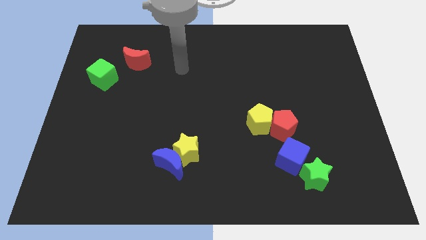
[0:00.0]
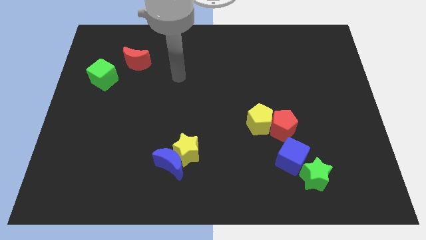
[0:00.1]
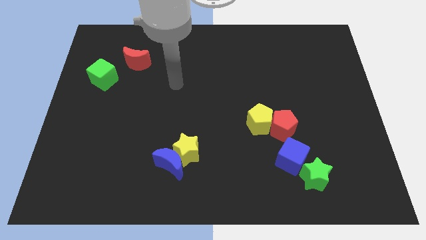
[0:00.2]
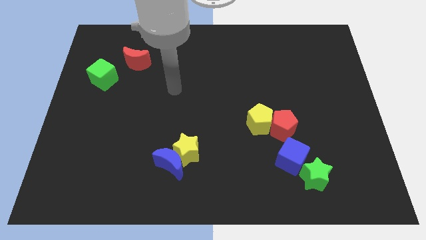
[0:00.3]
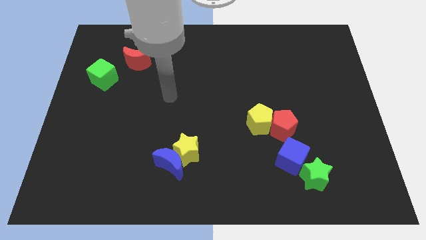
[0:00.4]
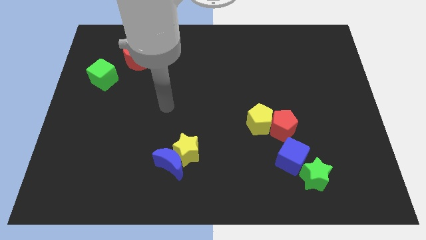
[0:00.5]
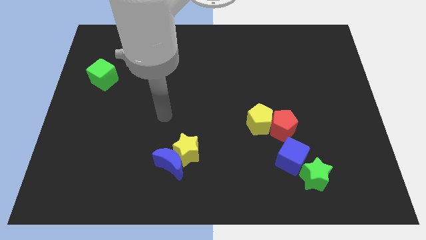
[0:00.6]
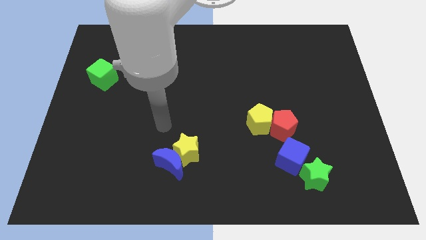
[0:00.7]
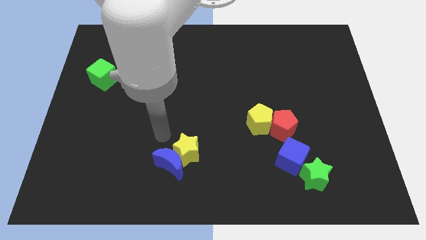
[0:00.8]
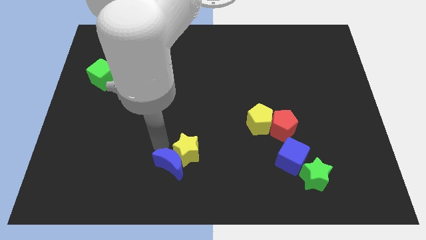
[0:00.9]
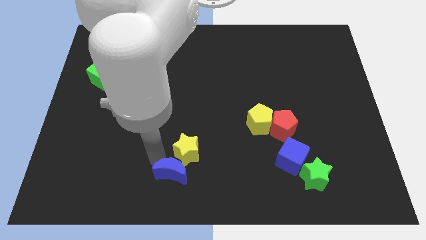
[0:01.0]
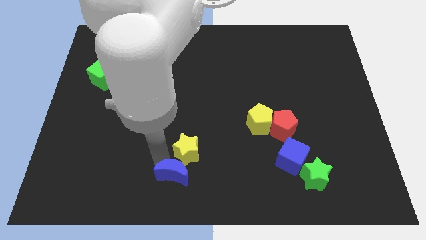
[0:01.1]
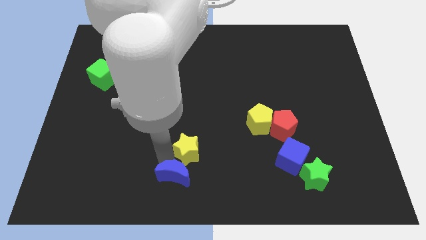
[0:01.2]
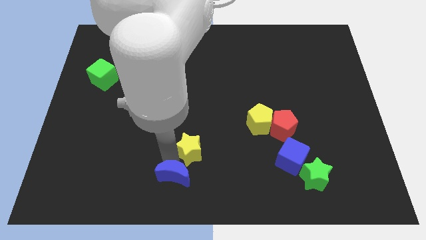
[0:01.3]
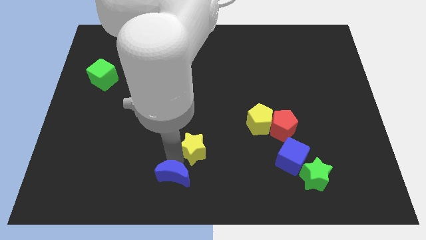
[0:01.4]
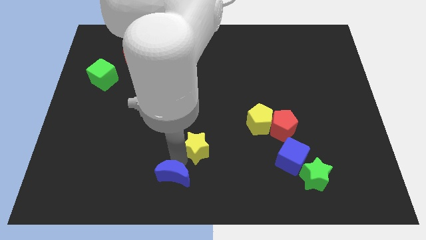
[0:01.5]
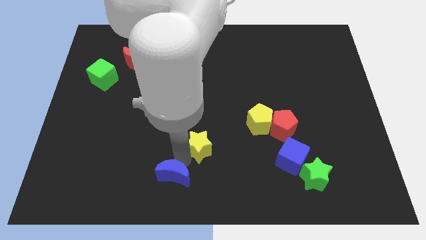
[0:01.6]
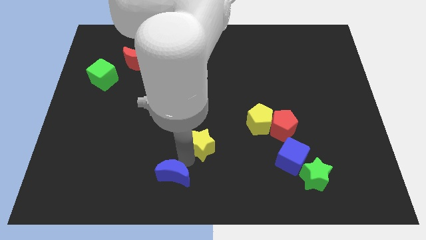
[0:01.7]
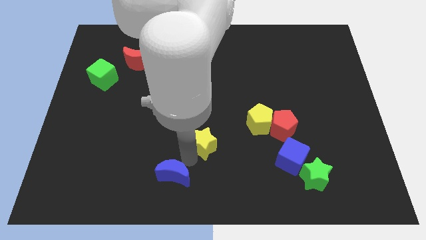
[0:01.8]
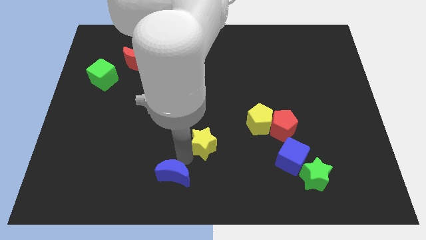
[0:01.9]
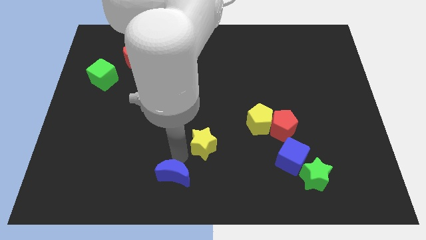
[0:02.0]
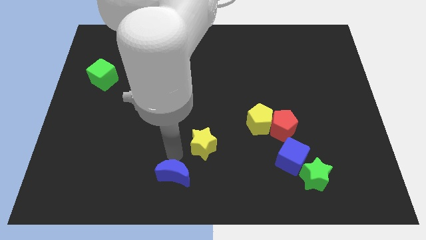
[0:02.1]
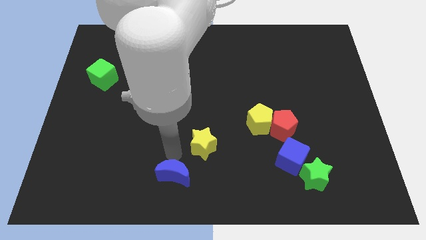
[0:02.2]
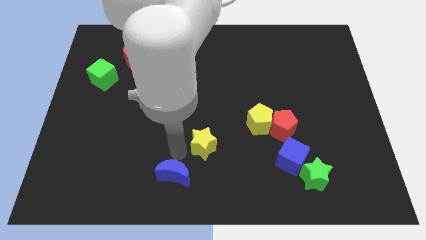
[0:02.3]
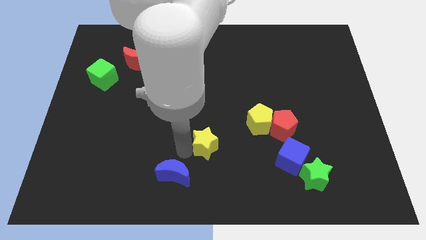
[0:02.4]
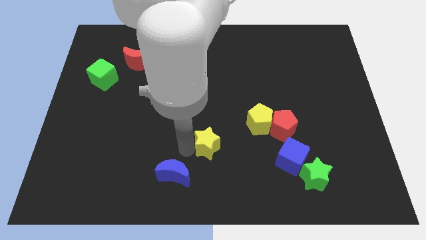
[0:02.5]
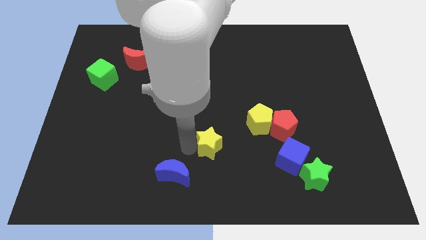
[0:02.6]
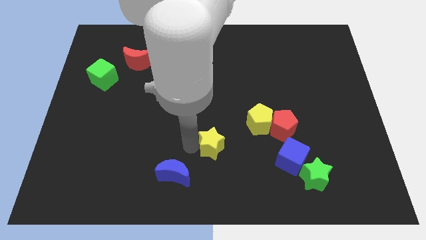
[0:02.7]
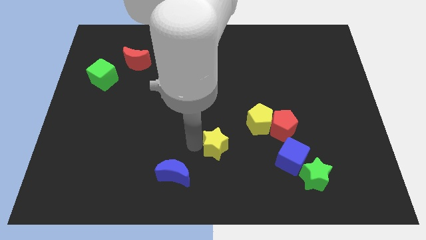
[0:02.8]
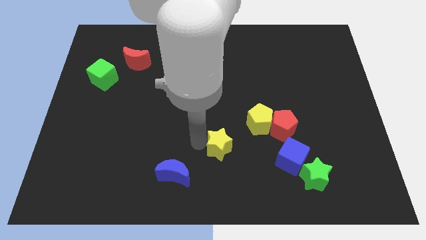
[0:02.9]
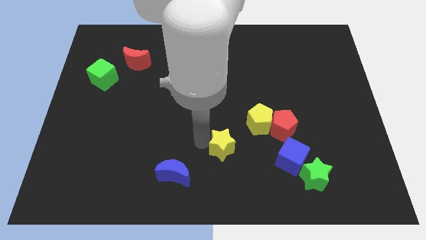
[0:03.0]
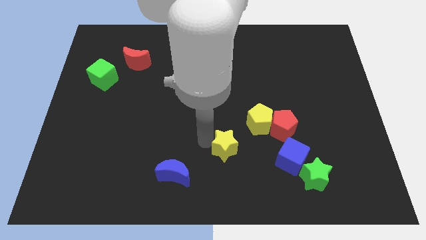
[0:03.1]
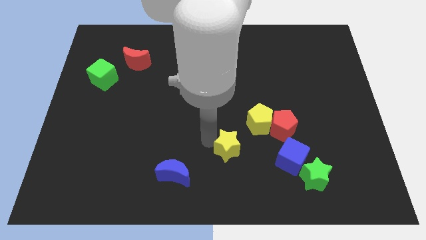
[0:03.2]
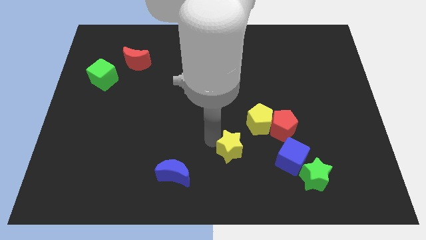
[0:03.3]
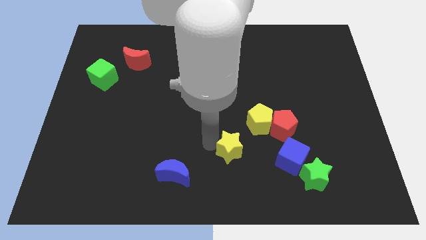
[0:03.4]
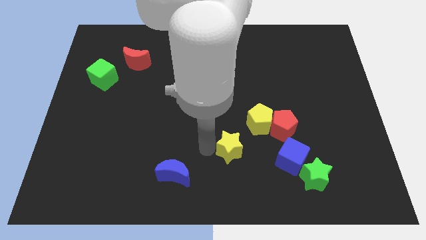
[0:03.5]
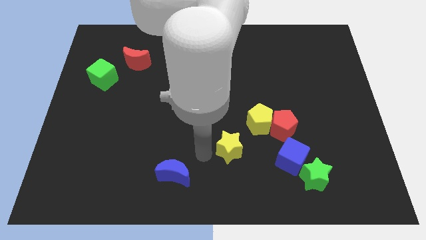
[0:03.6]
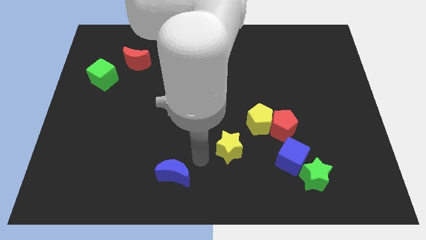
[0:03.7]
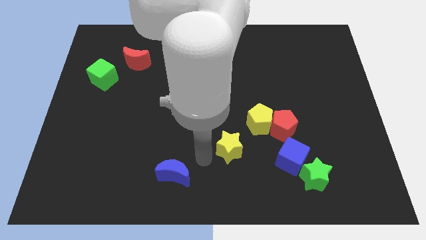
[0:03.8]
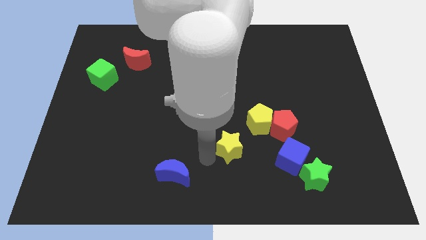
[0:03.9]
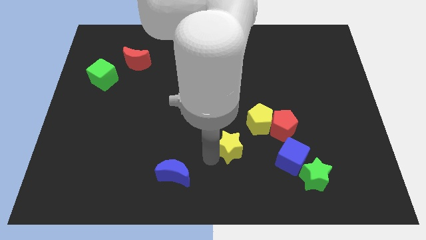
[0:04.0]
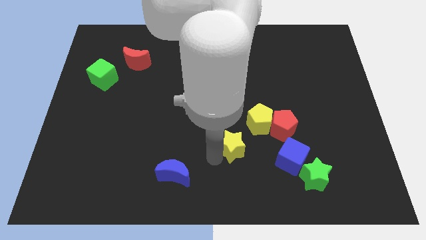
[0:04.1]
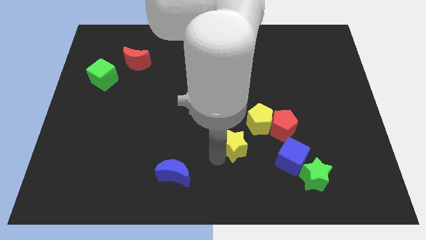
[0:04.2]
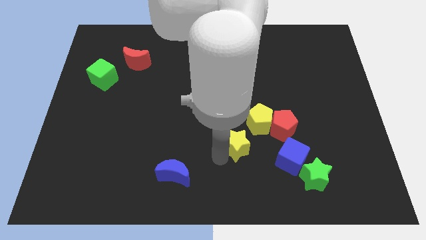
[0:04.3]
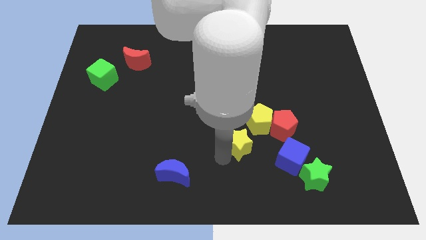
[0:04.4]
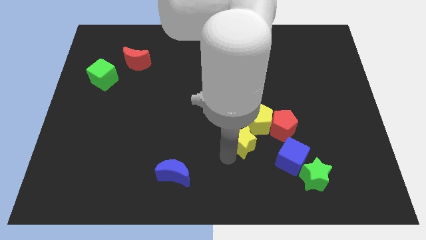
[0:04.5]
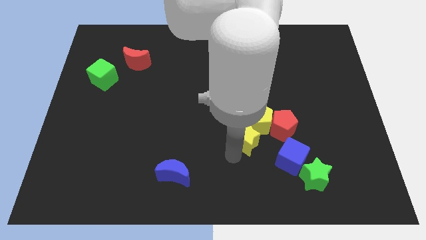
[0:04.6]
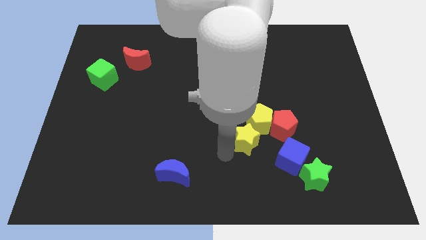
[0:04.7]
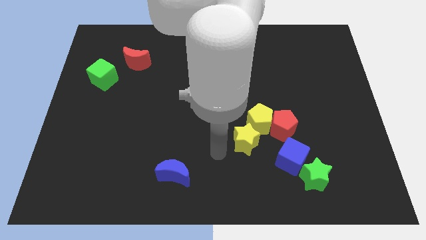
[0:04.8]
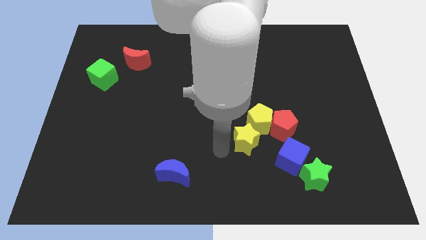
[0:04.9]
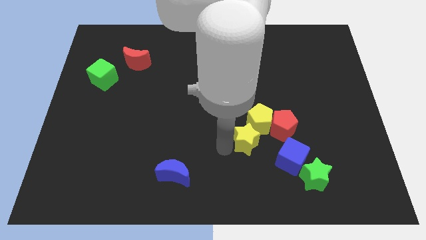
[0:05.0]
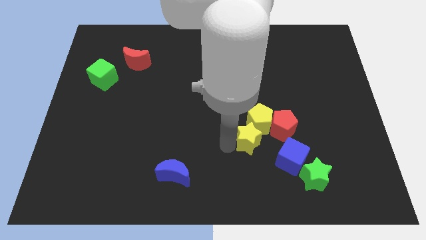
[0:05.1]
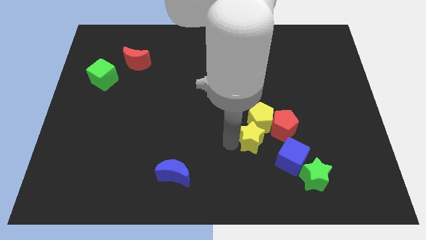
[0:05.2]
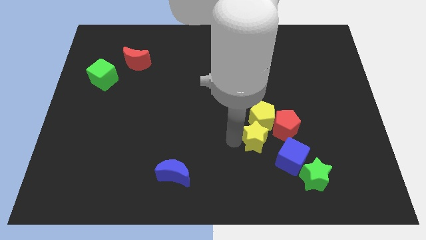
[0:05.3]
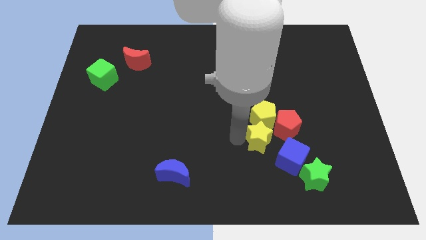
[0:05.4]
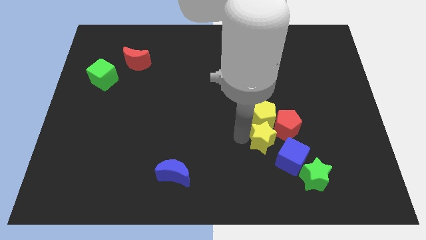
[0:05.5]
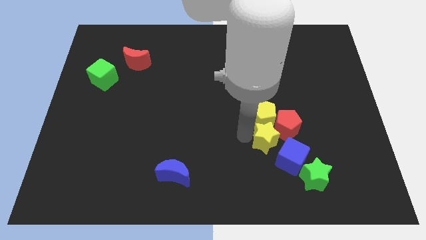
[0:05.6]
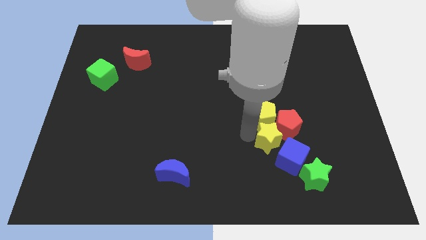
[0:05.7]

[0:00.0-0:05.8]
push the yellow star close to the red pentagon
